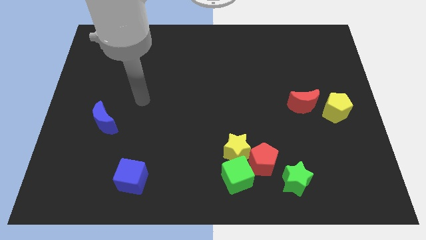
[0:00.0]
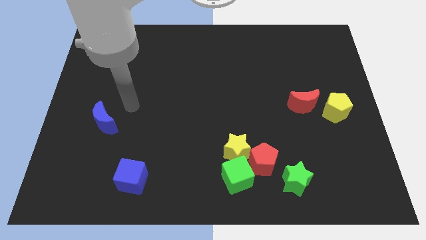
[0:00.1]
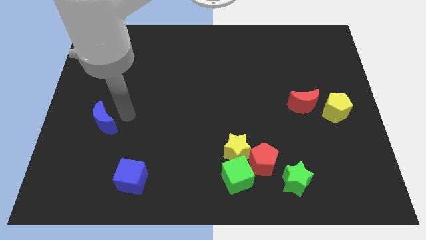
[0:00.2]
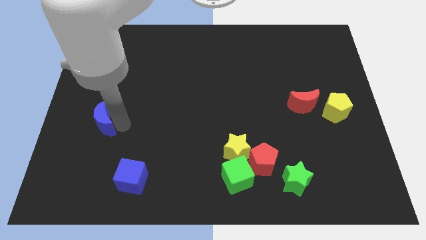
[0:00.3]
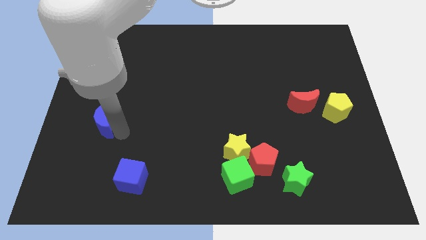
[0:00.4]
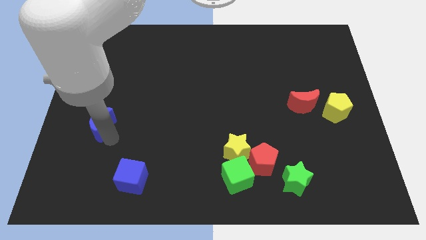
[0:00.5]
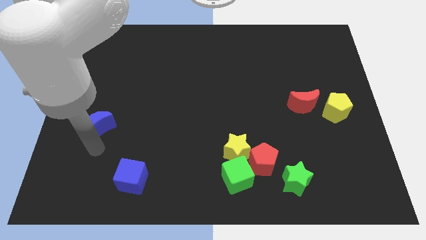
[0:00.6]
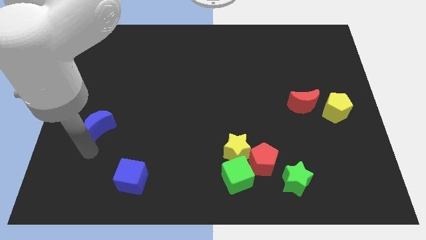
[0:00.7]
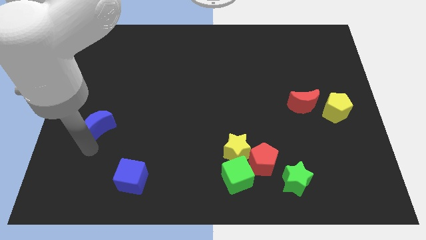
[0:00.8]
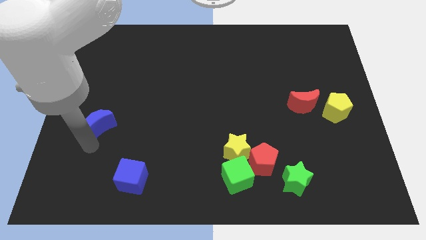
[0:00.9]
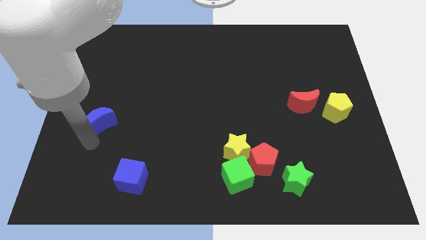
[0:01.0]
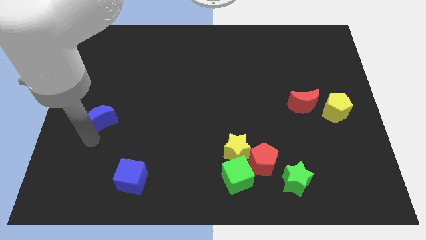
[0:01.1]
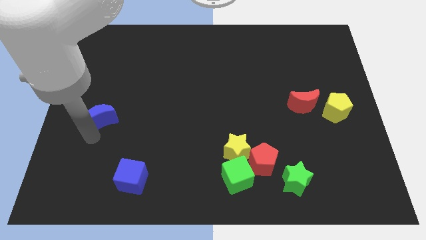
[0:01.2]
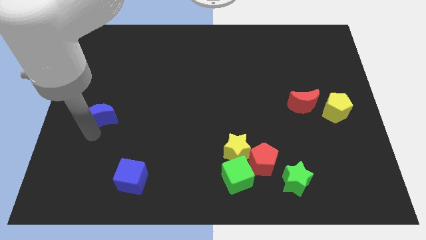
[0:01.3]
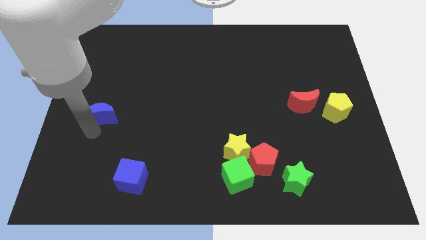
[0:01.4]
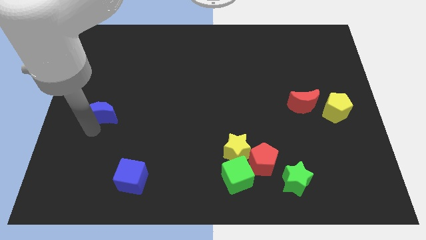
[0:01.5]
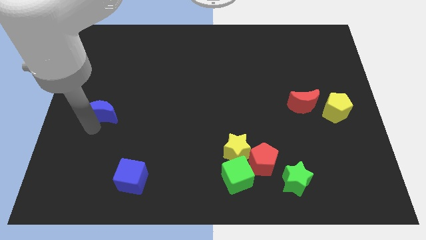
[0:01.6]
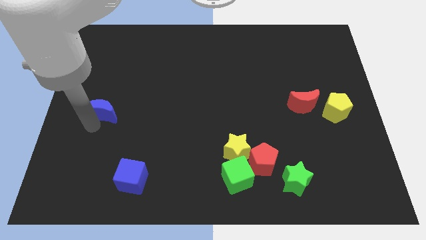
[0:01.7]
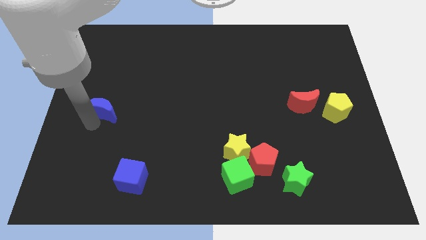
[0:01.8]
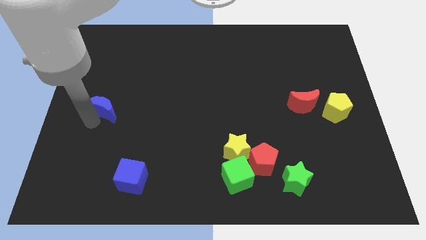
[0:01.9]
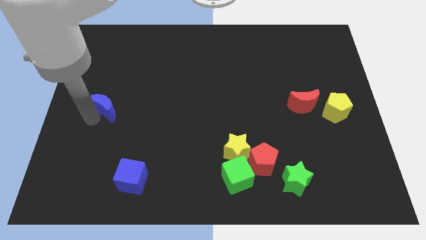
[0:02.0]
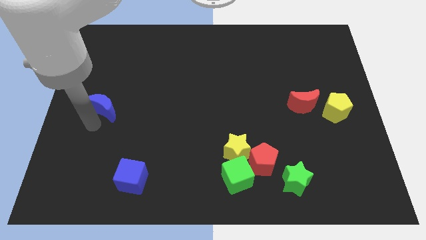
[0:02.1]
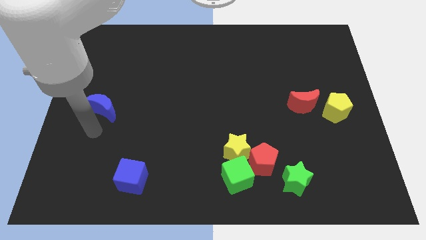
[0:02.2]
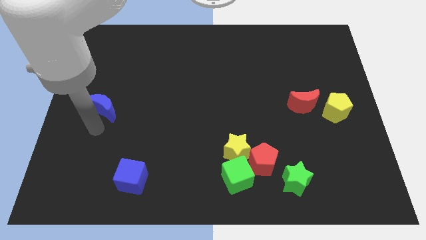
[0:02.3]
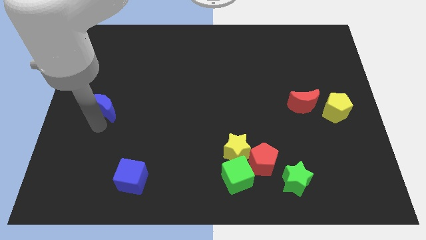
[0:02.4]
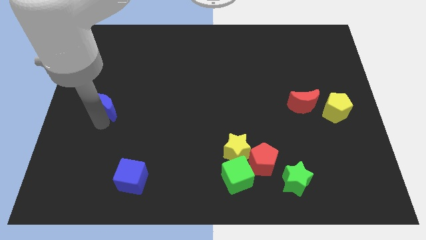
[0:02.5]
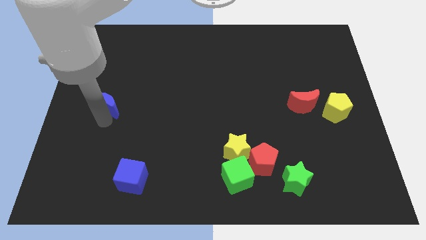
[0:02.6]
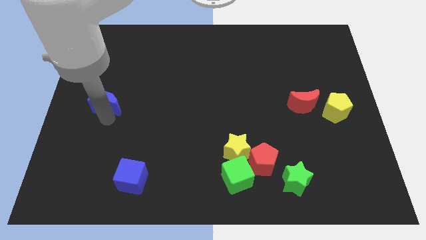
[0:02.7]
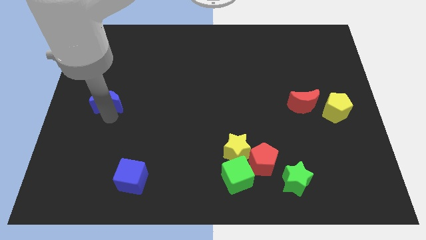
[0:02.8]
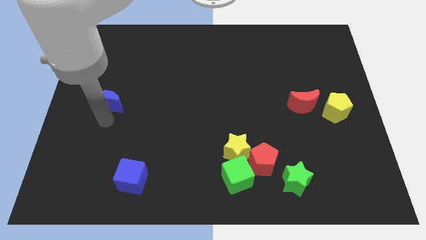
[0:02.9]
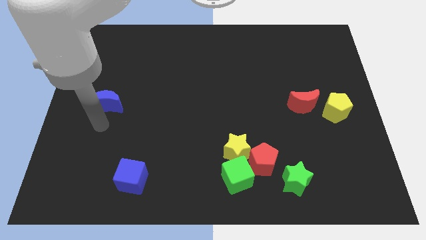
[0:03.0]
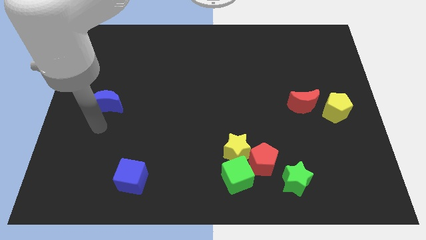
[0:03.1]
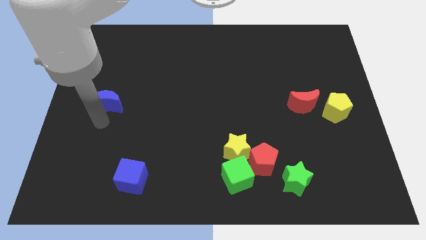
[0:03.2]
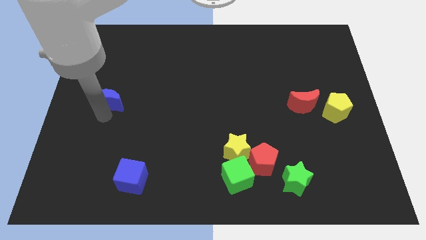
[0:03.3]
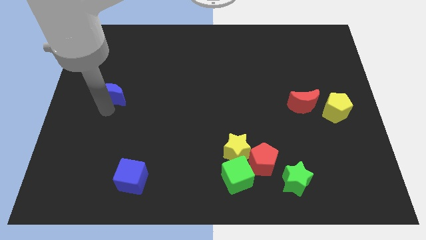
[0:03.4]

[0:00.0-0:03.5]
slightly slide the blue moon up

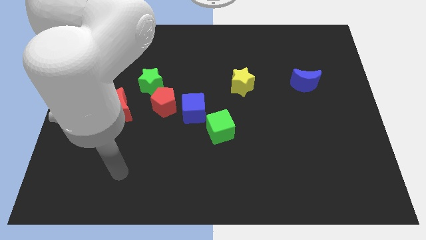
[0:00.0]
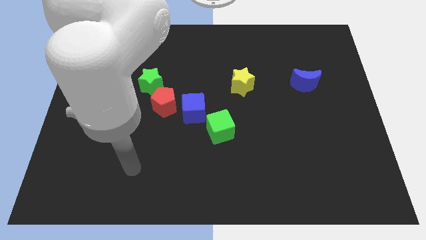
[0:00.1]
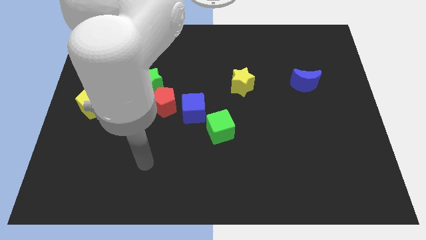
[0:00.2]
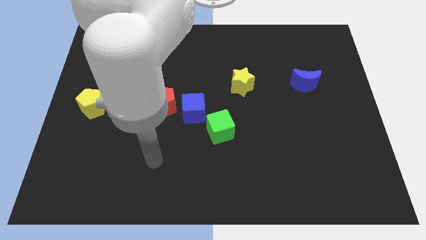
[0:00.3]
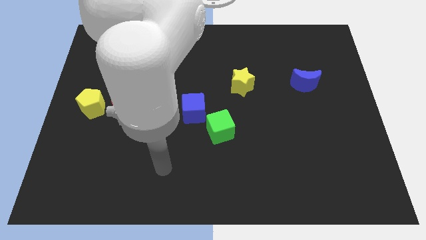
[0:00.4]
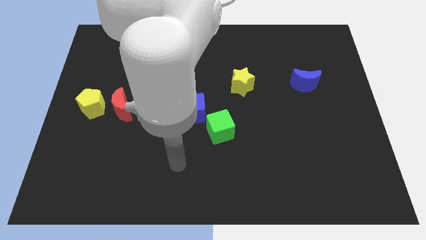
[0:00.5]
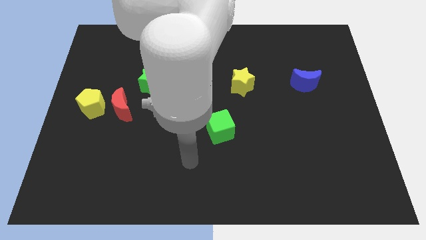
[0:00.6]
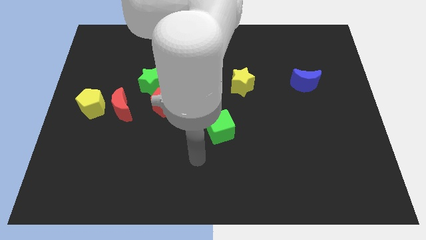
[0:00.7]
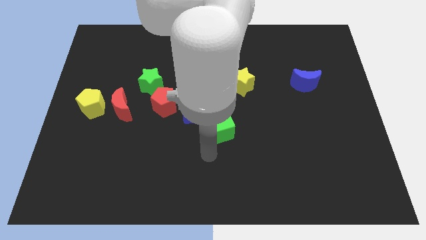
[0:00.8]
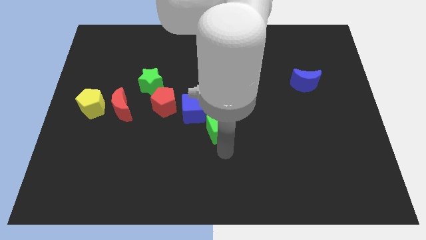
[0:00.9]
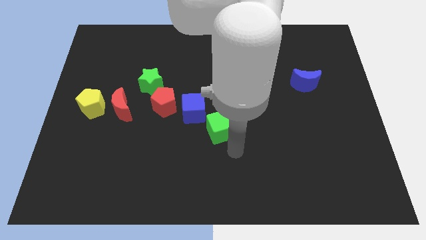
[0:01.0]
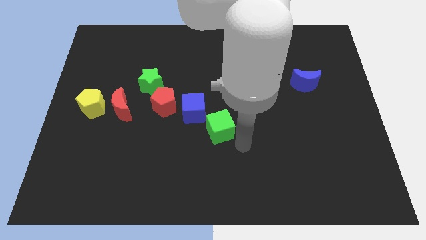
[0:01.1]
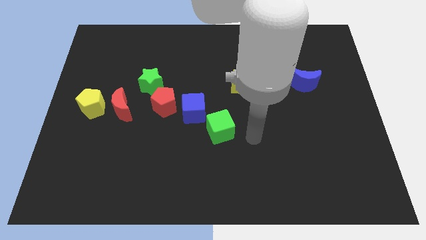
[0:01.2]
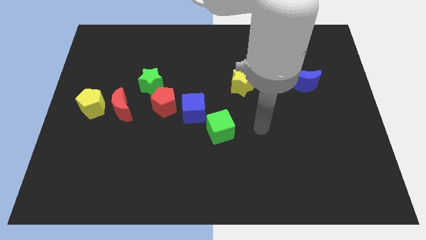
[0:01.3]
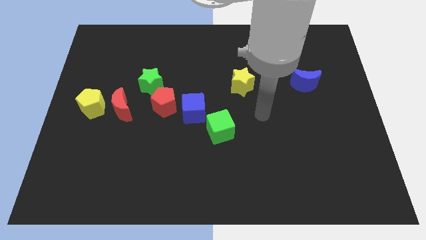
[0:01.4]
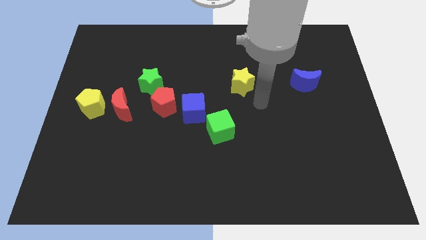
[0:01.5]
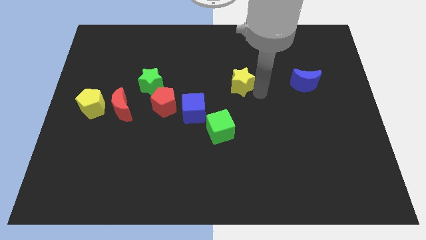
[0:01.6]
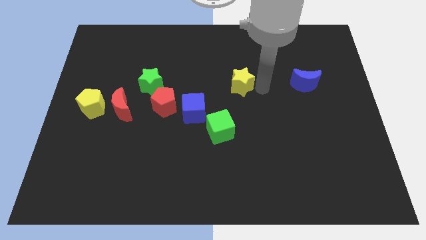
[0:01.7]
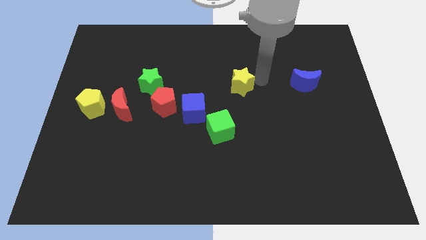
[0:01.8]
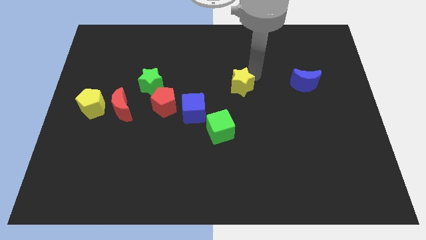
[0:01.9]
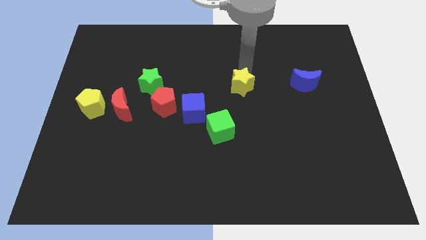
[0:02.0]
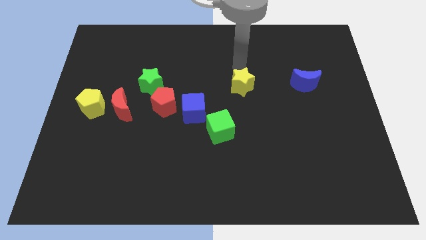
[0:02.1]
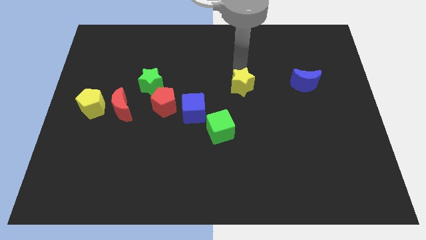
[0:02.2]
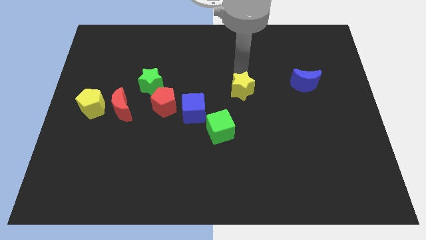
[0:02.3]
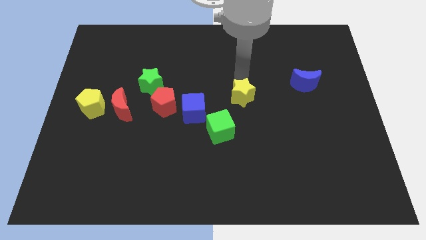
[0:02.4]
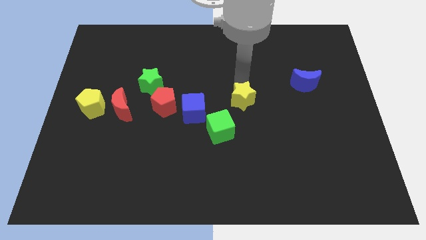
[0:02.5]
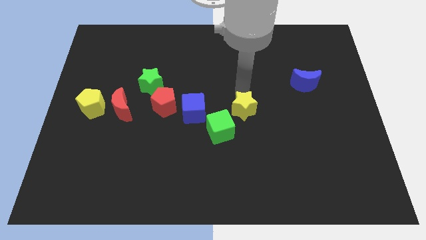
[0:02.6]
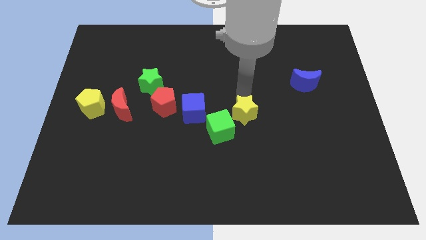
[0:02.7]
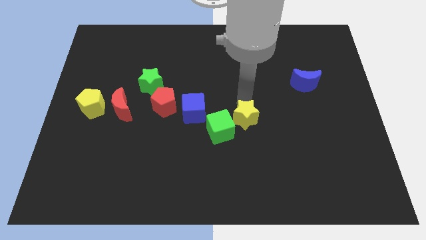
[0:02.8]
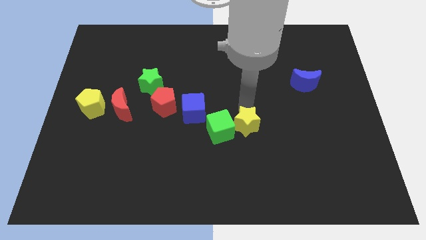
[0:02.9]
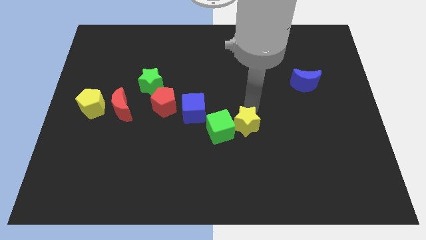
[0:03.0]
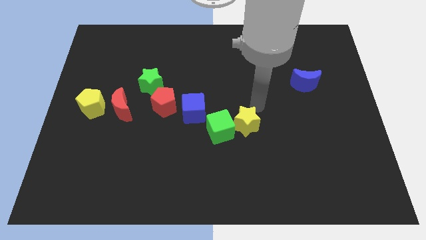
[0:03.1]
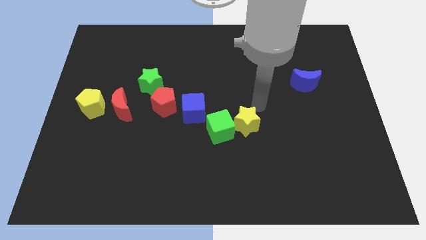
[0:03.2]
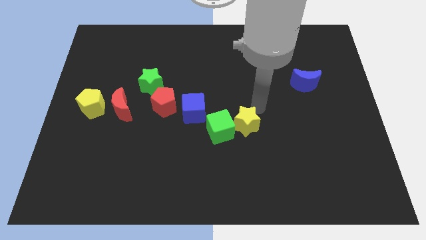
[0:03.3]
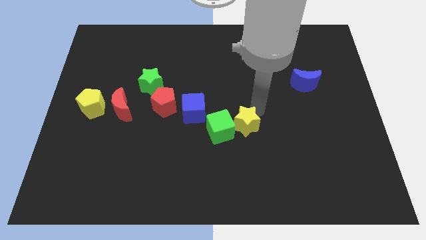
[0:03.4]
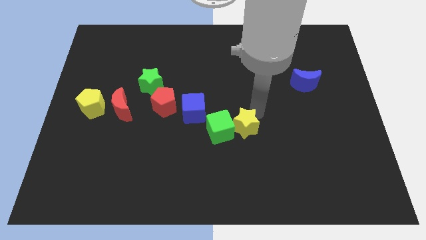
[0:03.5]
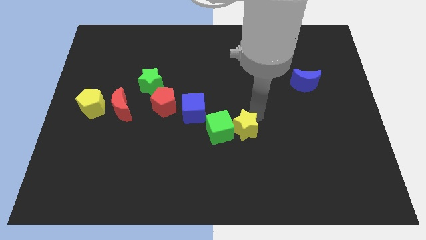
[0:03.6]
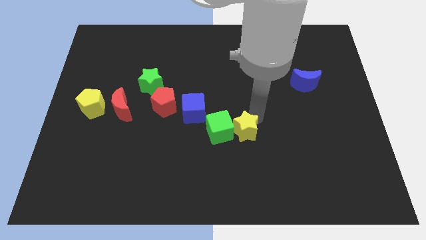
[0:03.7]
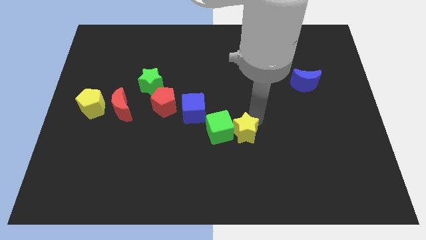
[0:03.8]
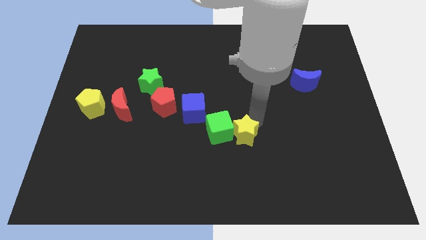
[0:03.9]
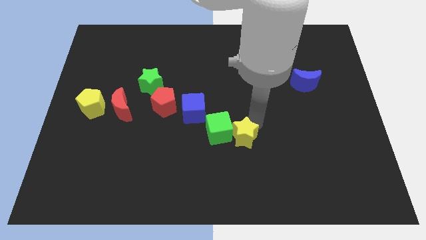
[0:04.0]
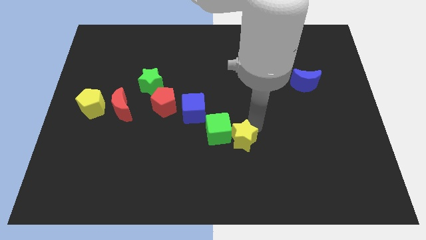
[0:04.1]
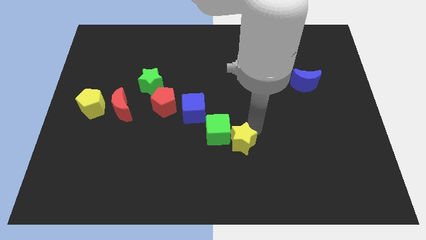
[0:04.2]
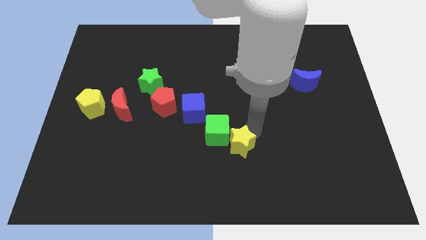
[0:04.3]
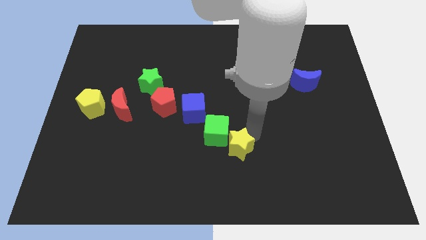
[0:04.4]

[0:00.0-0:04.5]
slide the yellow star downwards and left diagonally a little bit

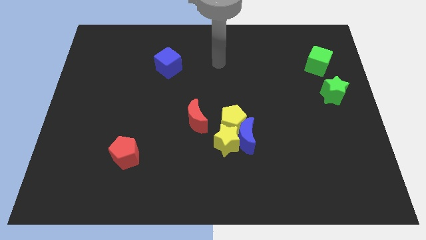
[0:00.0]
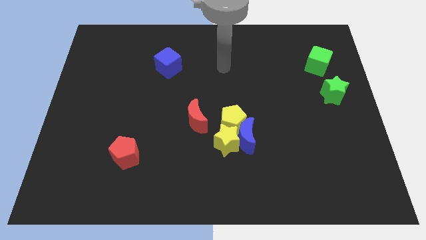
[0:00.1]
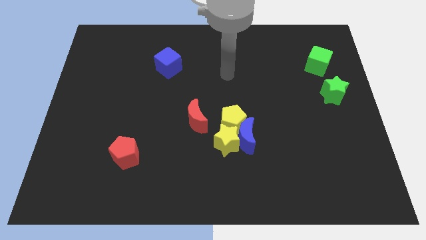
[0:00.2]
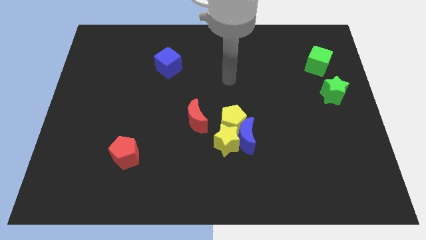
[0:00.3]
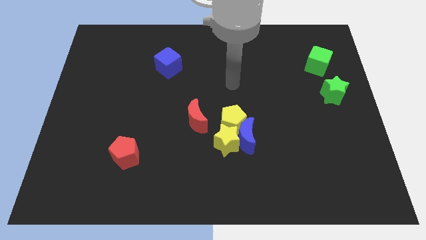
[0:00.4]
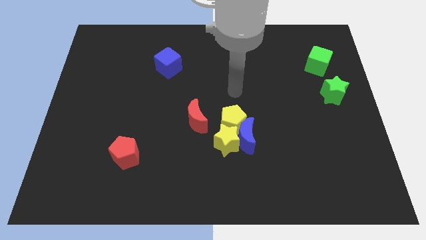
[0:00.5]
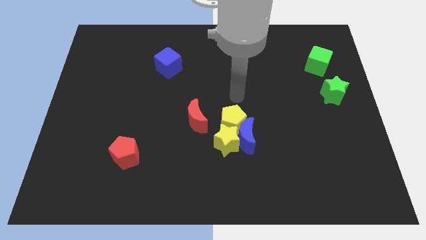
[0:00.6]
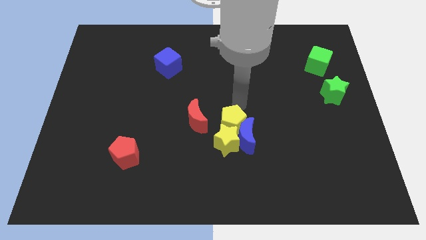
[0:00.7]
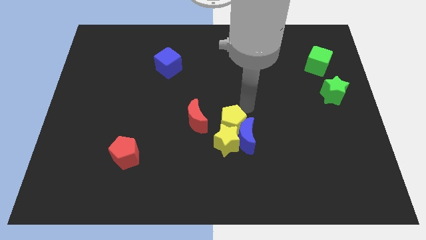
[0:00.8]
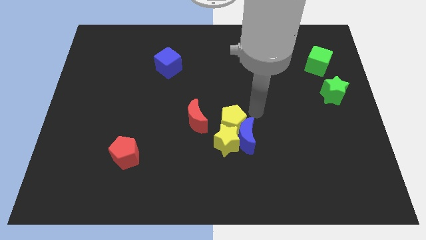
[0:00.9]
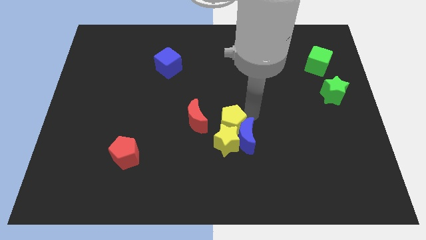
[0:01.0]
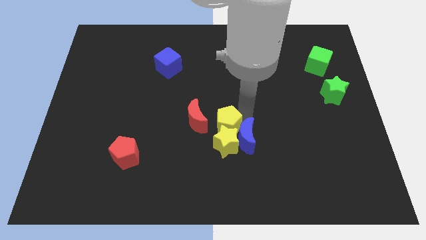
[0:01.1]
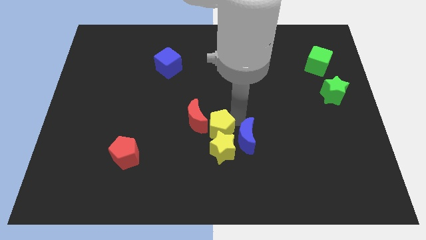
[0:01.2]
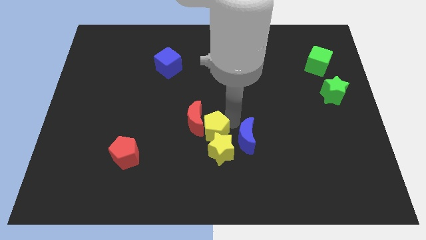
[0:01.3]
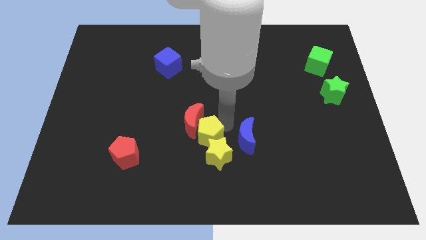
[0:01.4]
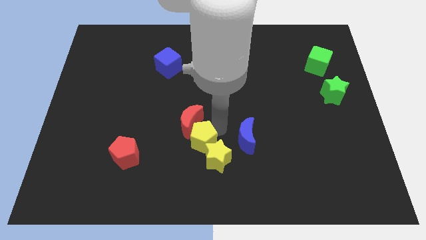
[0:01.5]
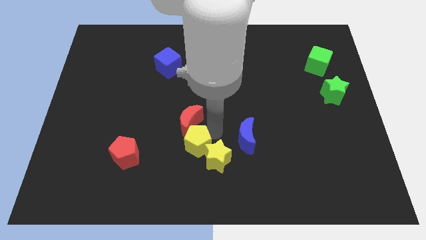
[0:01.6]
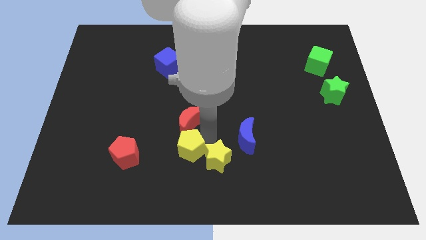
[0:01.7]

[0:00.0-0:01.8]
slightly slide the yellow pentagon to the left
